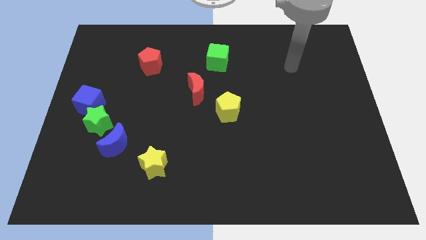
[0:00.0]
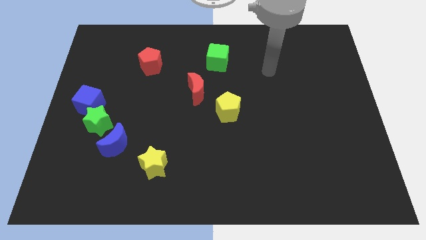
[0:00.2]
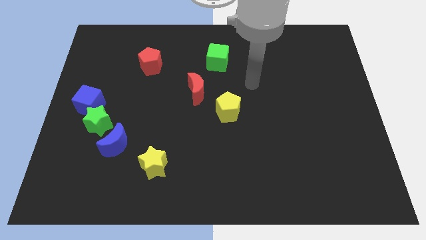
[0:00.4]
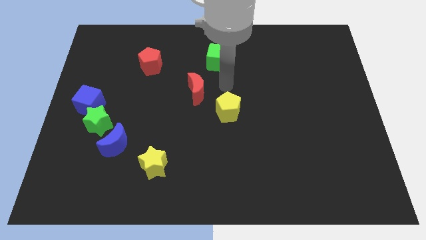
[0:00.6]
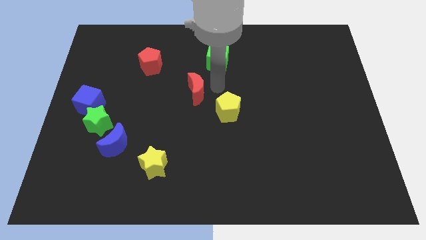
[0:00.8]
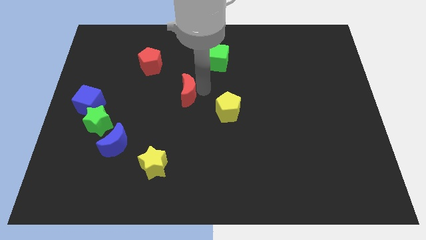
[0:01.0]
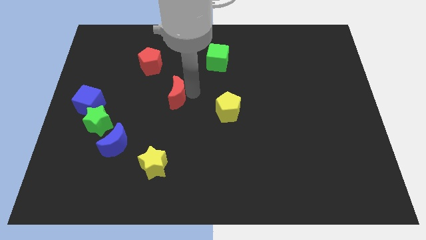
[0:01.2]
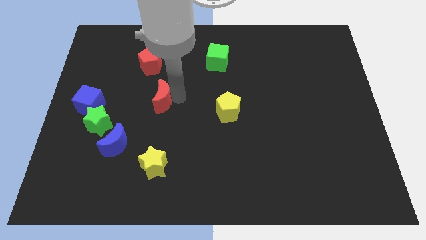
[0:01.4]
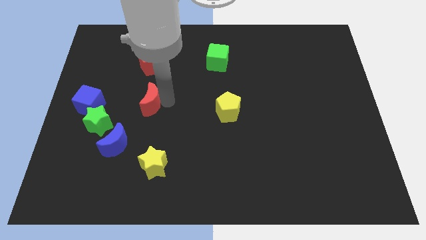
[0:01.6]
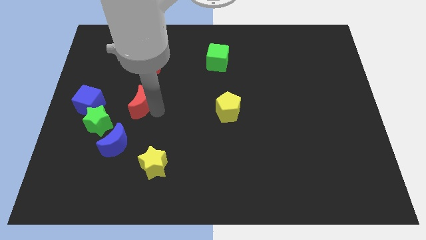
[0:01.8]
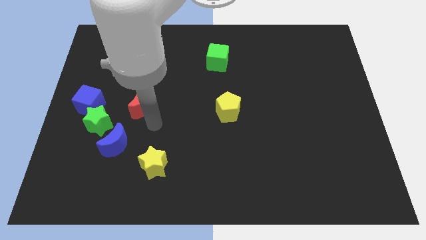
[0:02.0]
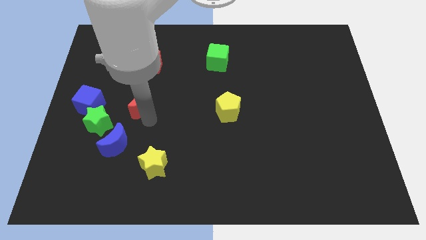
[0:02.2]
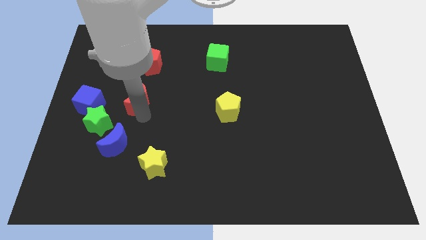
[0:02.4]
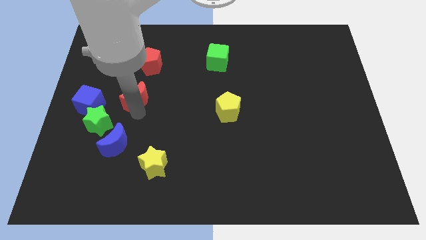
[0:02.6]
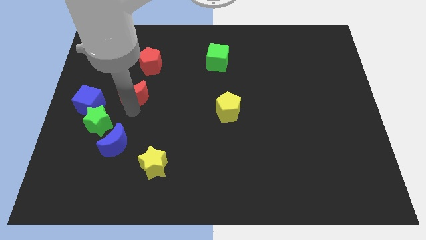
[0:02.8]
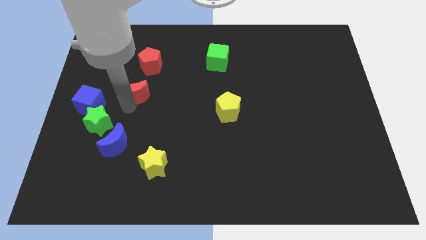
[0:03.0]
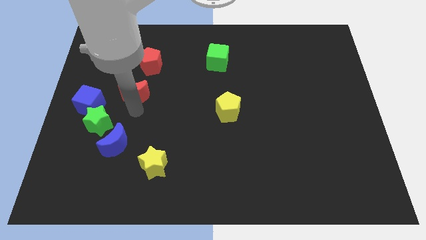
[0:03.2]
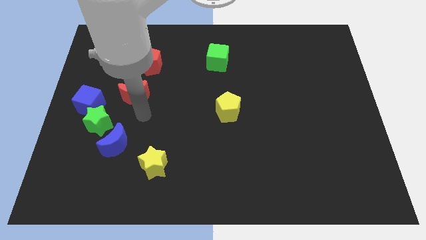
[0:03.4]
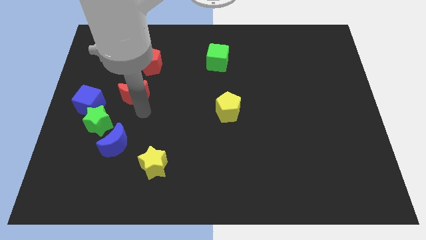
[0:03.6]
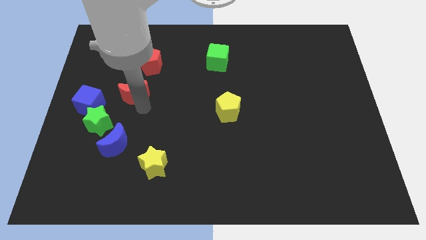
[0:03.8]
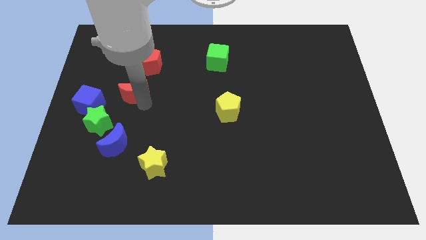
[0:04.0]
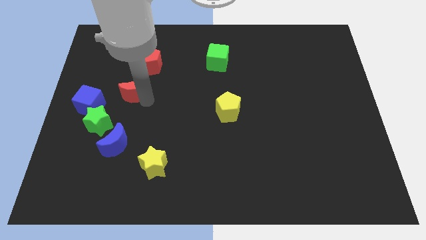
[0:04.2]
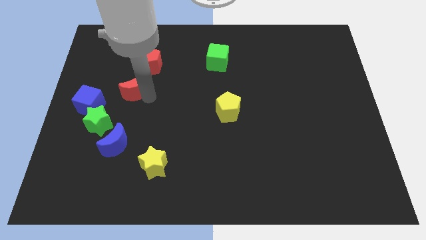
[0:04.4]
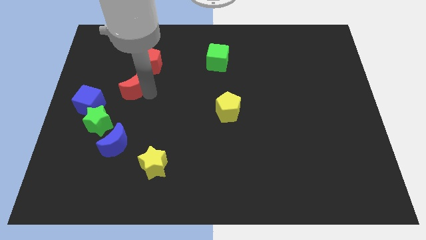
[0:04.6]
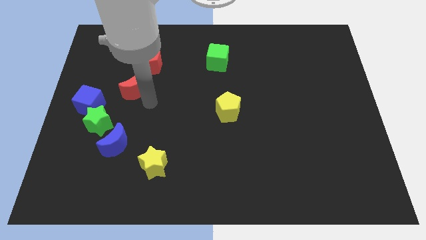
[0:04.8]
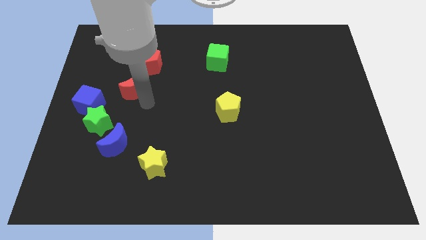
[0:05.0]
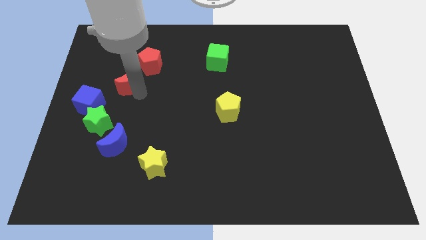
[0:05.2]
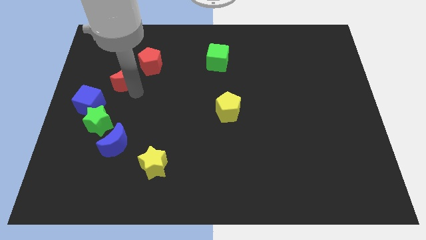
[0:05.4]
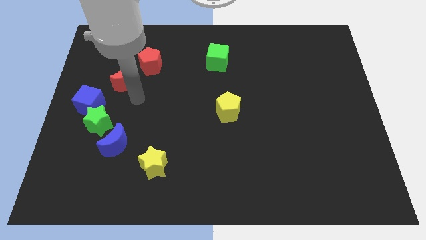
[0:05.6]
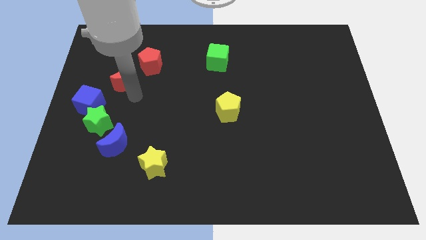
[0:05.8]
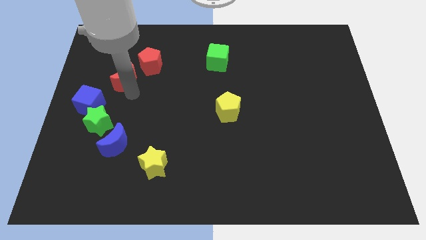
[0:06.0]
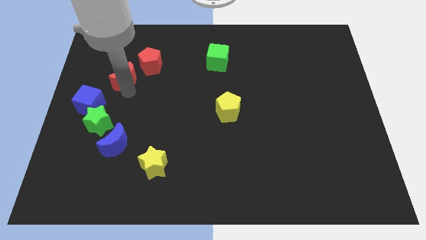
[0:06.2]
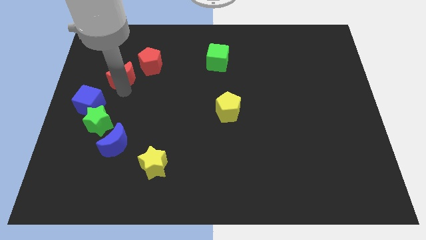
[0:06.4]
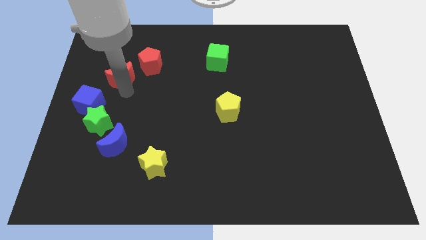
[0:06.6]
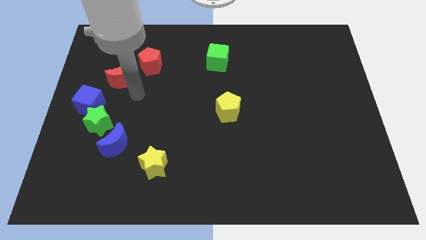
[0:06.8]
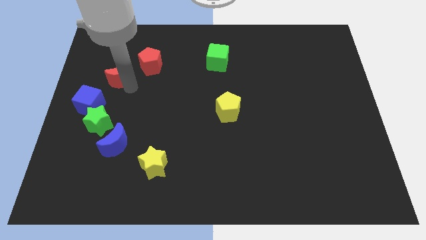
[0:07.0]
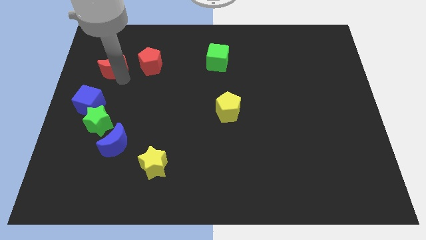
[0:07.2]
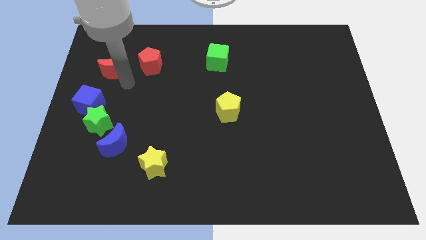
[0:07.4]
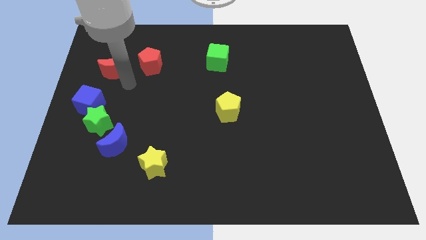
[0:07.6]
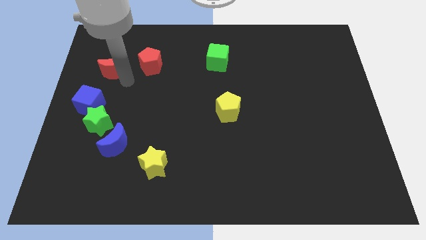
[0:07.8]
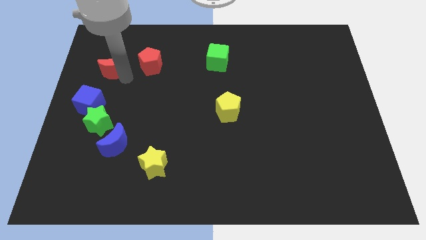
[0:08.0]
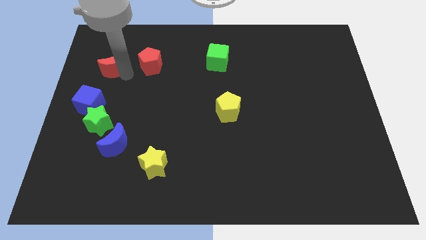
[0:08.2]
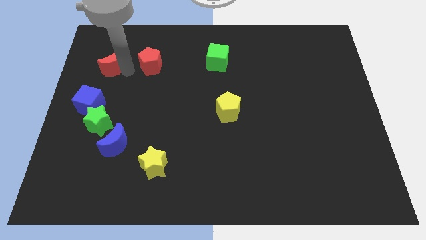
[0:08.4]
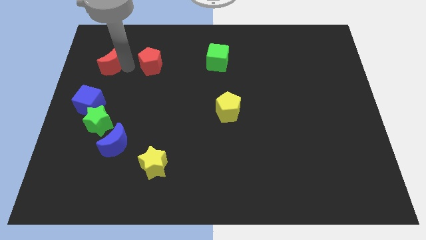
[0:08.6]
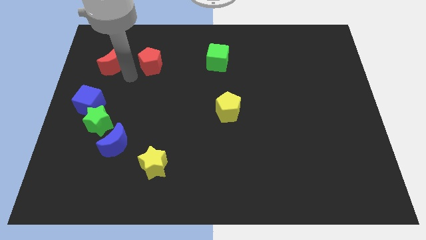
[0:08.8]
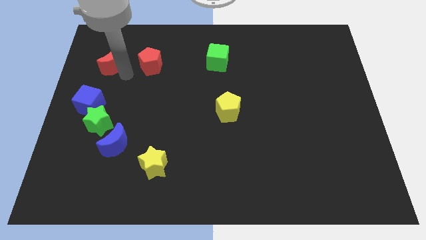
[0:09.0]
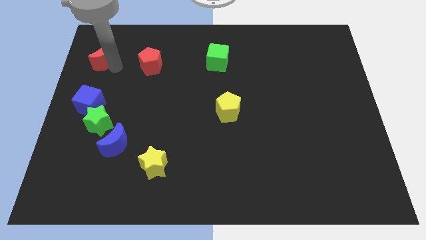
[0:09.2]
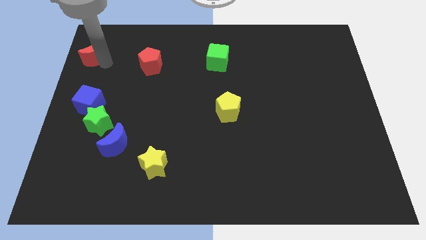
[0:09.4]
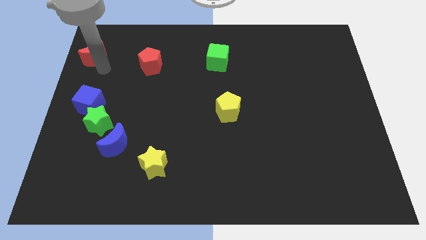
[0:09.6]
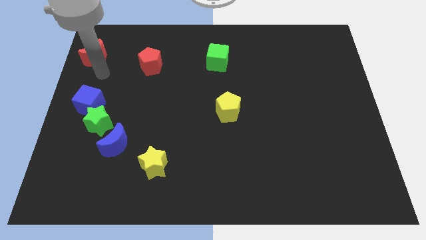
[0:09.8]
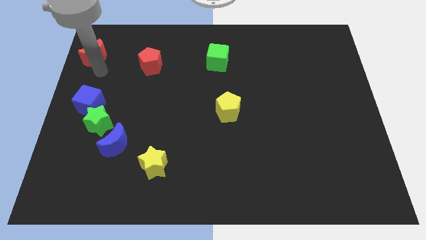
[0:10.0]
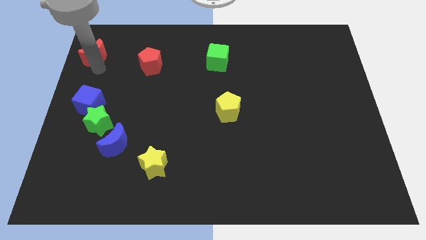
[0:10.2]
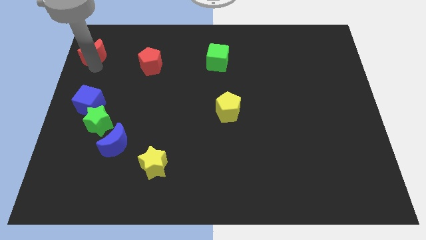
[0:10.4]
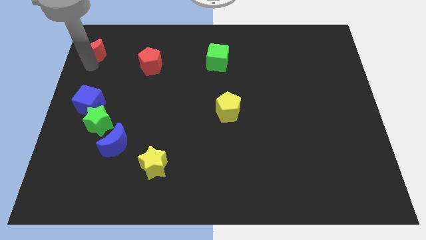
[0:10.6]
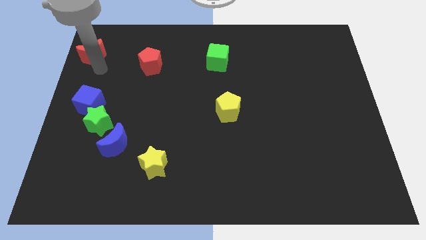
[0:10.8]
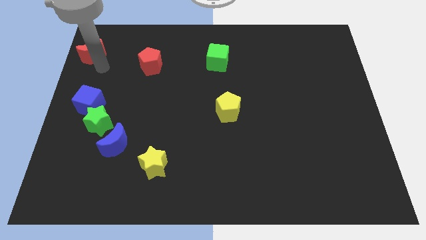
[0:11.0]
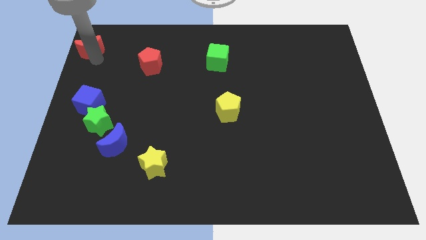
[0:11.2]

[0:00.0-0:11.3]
slide the red moon to the top left corner

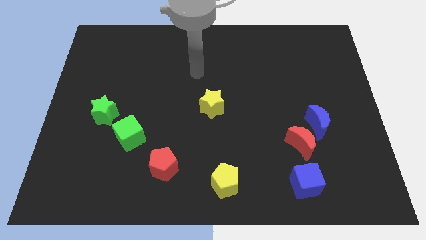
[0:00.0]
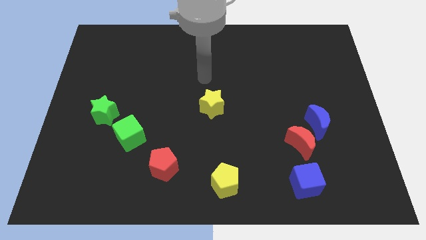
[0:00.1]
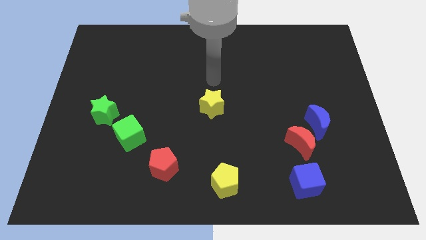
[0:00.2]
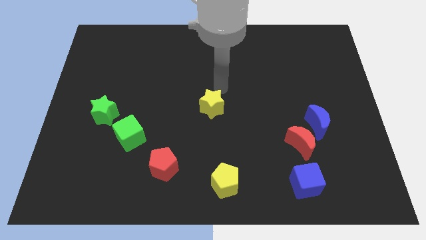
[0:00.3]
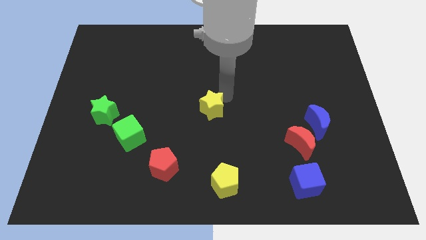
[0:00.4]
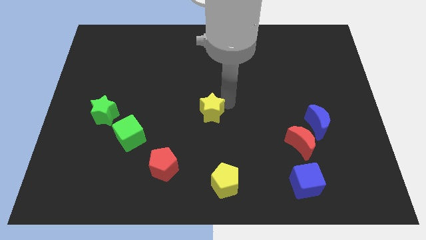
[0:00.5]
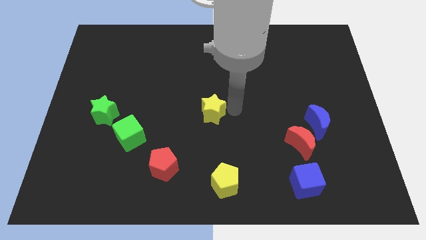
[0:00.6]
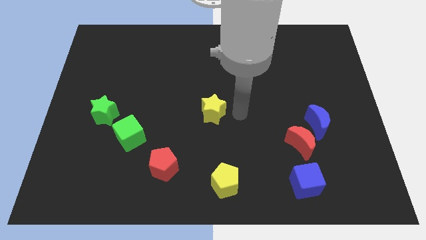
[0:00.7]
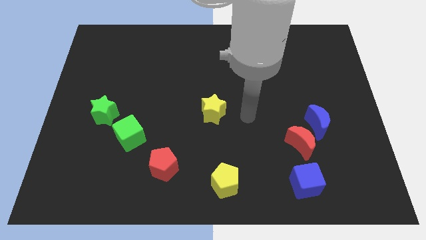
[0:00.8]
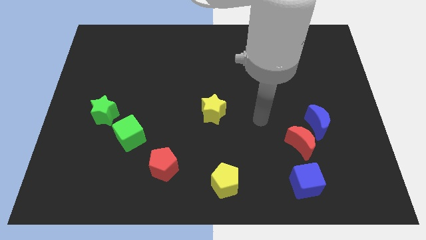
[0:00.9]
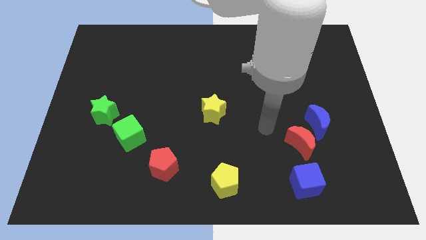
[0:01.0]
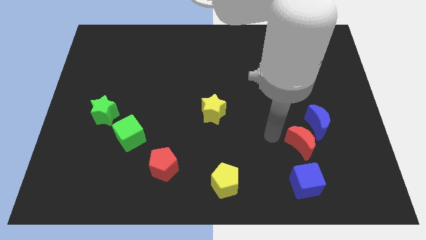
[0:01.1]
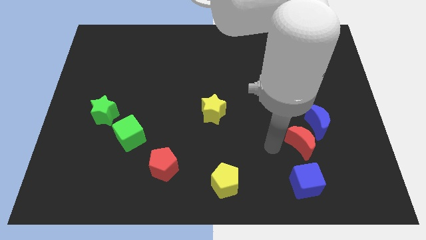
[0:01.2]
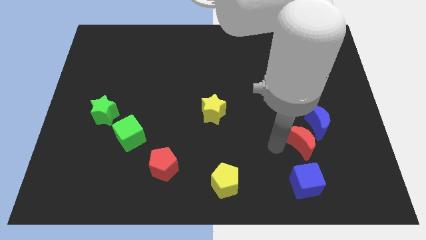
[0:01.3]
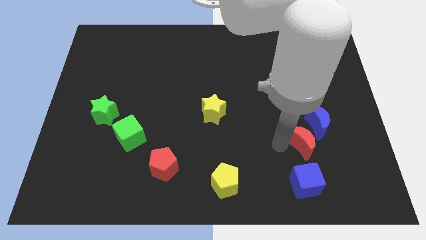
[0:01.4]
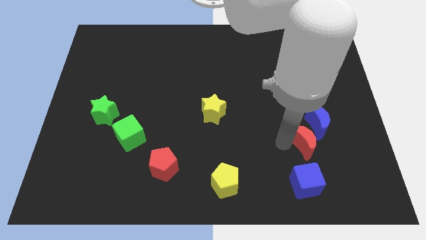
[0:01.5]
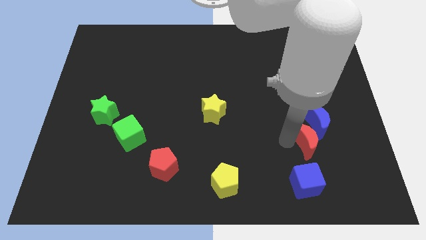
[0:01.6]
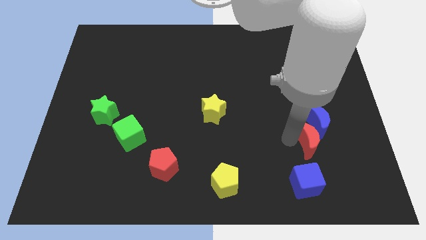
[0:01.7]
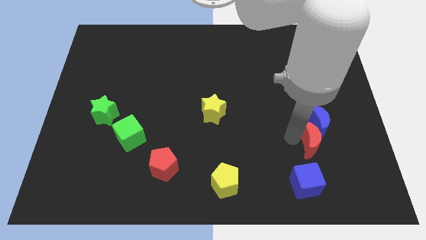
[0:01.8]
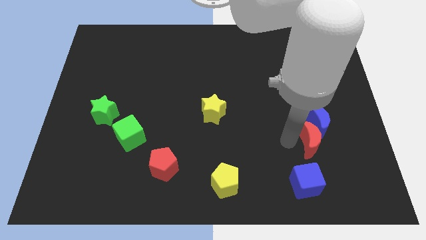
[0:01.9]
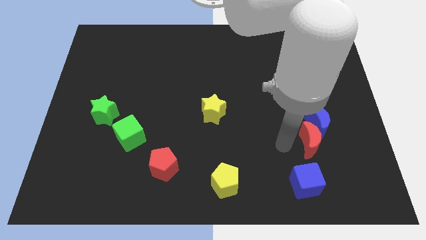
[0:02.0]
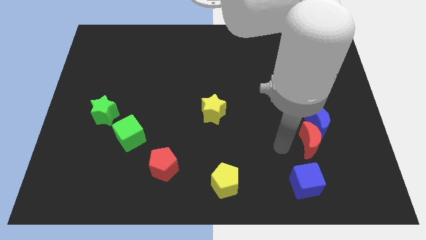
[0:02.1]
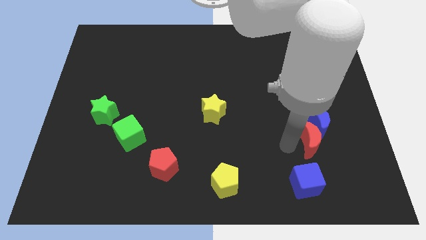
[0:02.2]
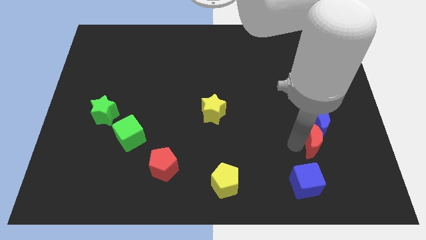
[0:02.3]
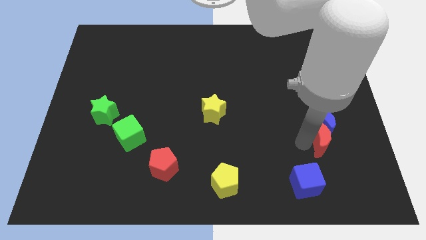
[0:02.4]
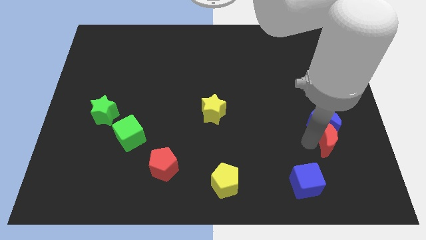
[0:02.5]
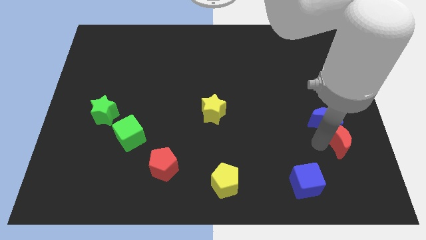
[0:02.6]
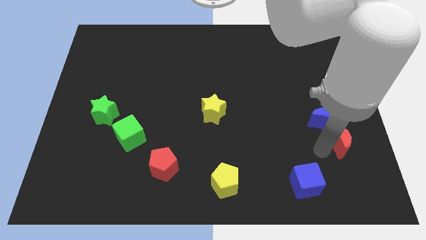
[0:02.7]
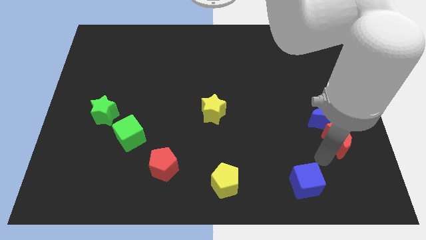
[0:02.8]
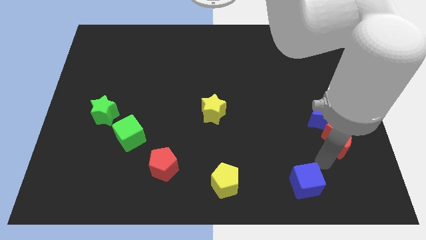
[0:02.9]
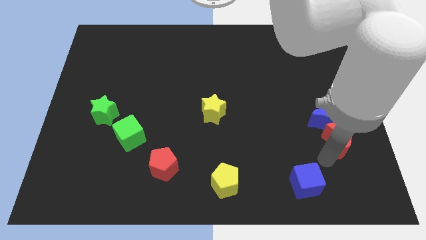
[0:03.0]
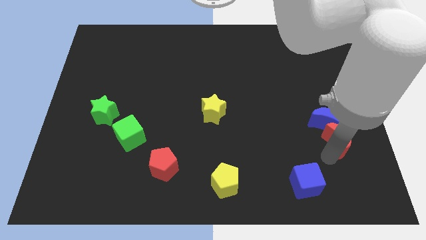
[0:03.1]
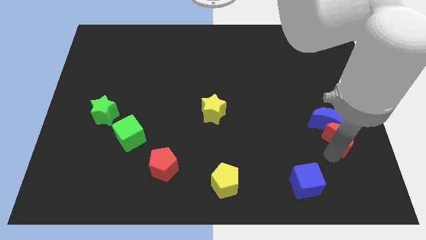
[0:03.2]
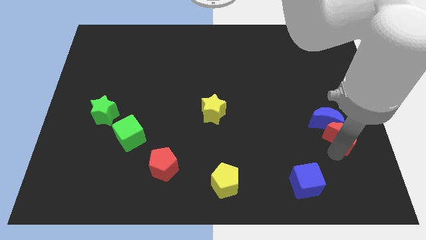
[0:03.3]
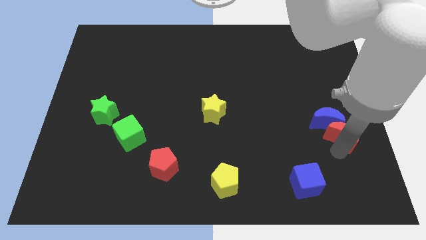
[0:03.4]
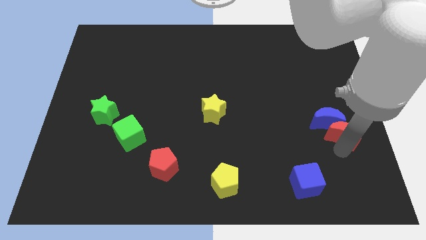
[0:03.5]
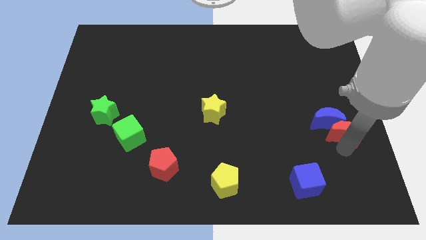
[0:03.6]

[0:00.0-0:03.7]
move the red moon to the right side
